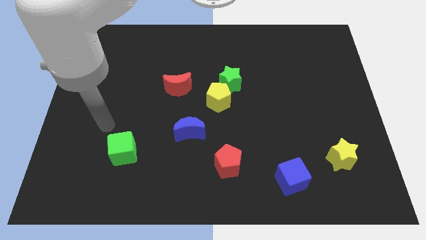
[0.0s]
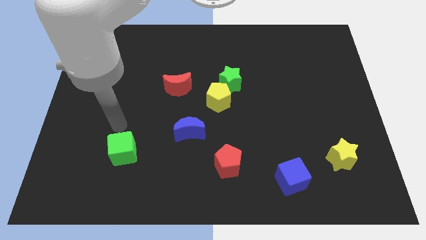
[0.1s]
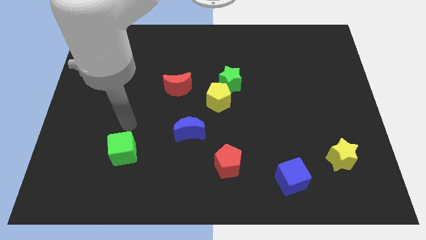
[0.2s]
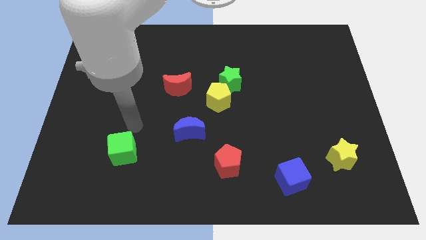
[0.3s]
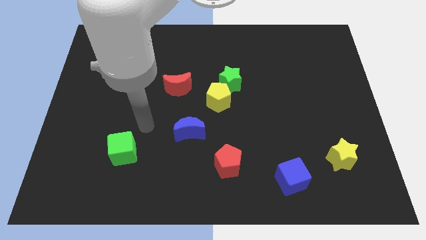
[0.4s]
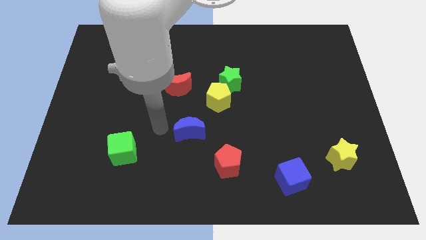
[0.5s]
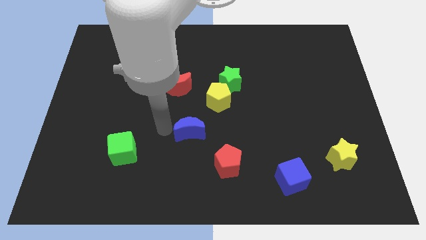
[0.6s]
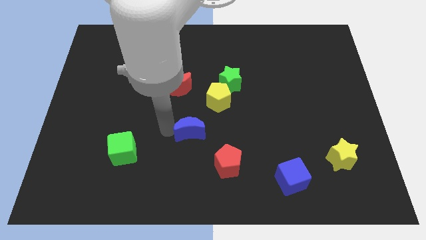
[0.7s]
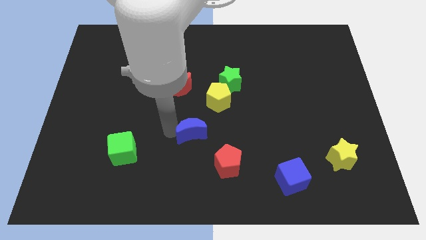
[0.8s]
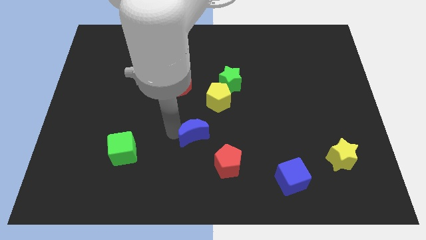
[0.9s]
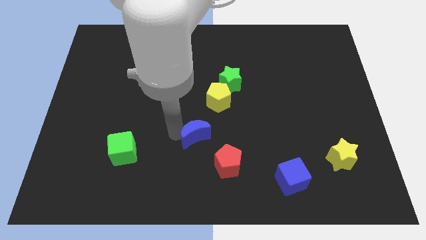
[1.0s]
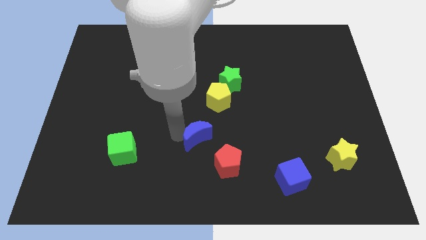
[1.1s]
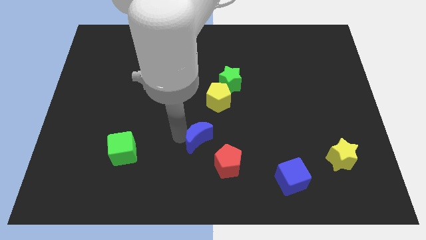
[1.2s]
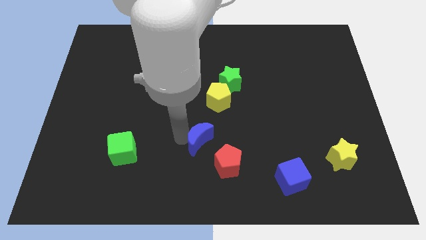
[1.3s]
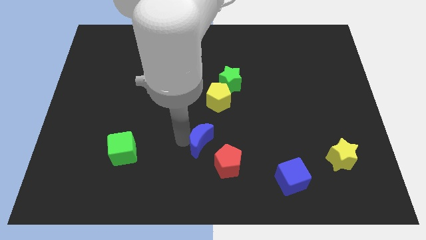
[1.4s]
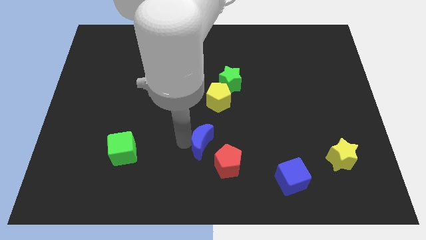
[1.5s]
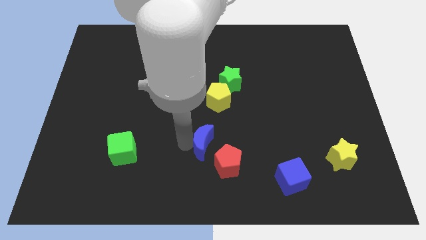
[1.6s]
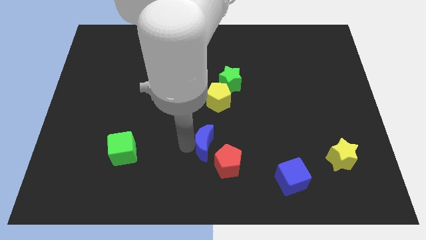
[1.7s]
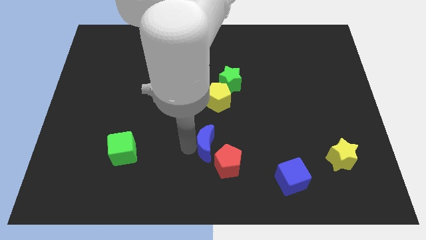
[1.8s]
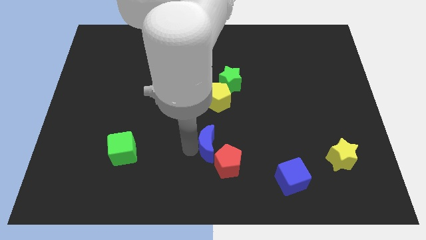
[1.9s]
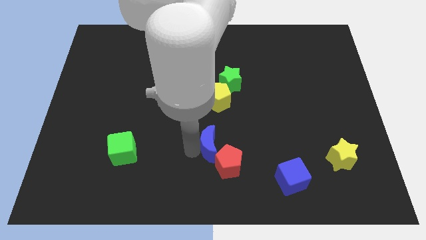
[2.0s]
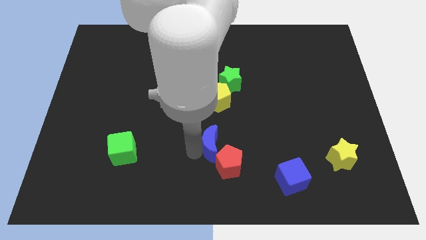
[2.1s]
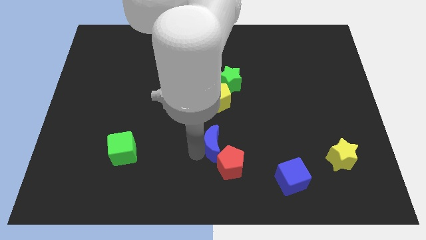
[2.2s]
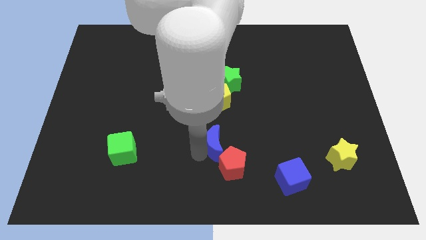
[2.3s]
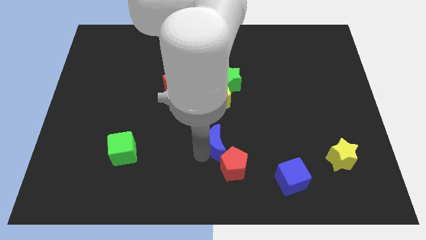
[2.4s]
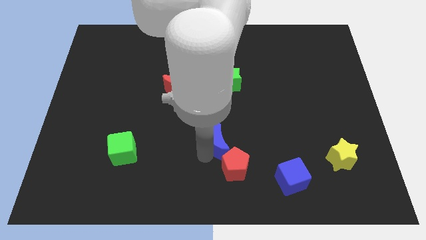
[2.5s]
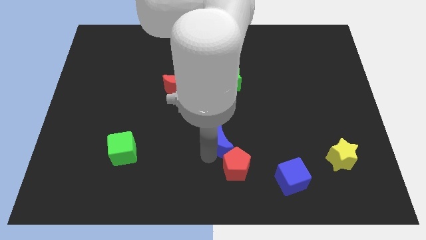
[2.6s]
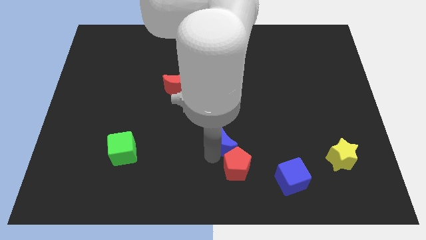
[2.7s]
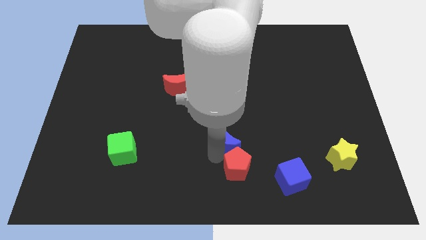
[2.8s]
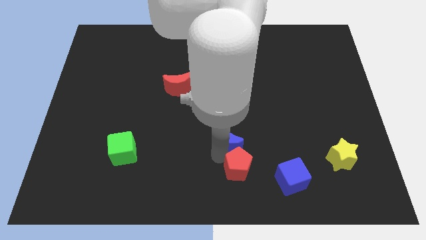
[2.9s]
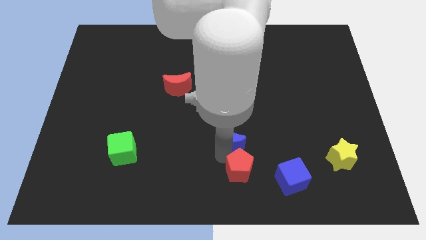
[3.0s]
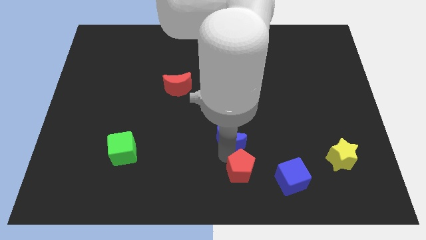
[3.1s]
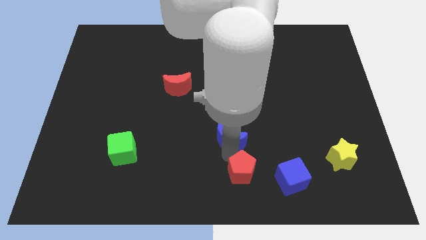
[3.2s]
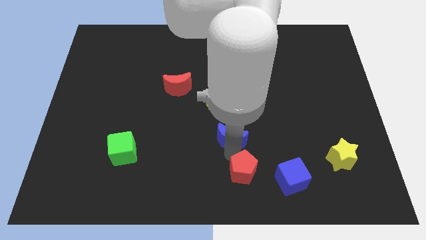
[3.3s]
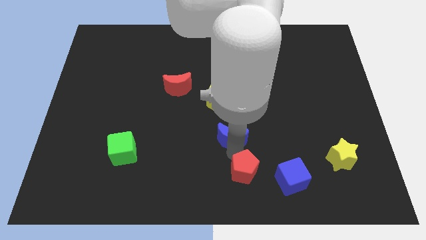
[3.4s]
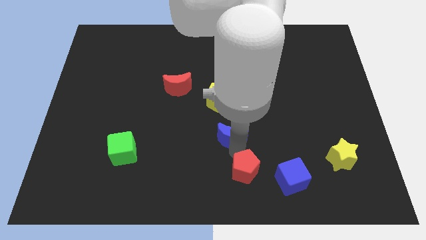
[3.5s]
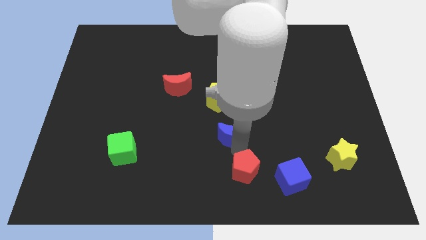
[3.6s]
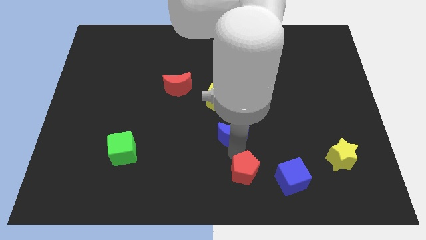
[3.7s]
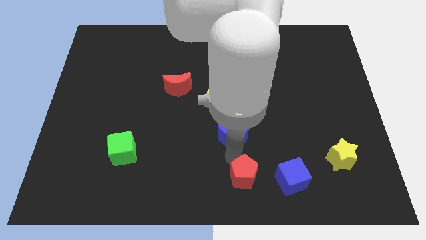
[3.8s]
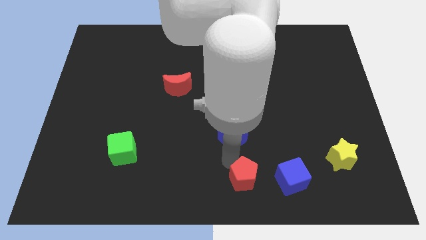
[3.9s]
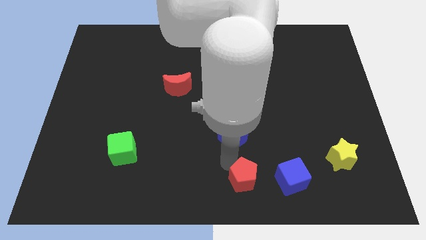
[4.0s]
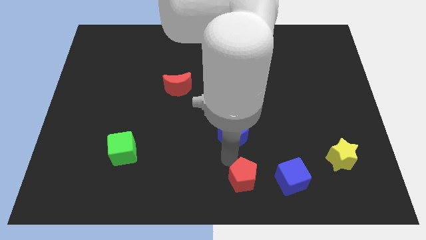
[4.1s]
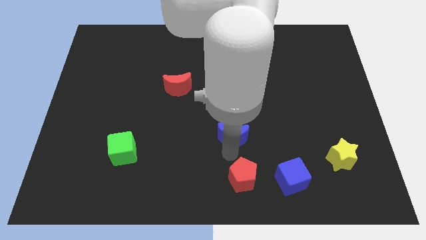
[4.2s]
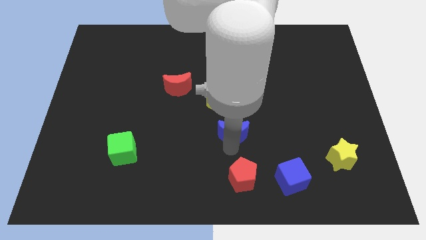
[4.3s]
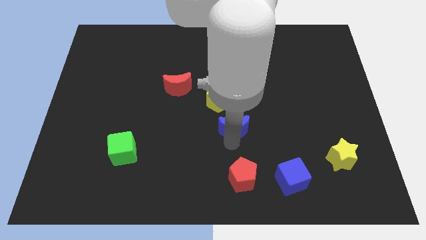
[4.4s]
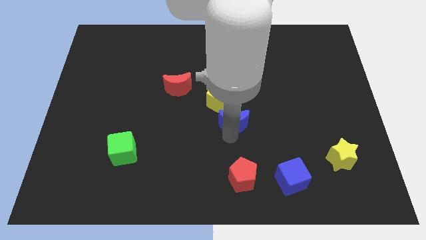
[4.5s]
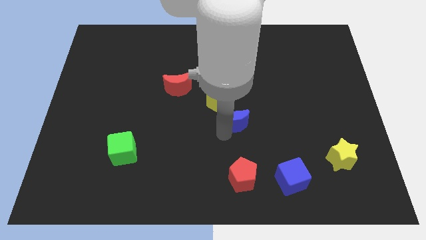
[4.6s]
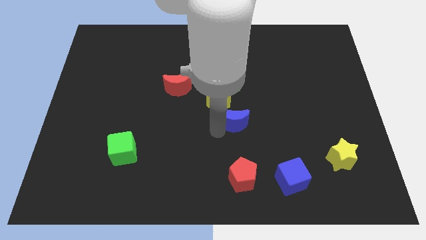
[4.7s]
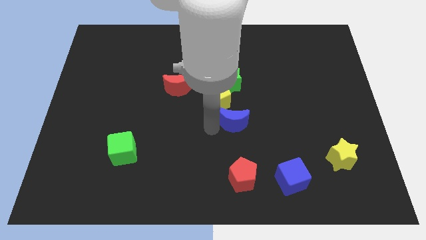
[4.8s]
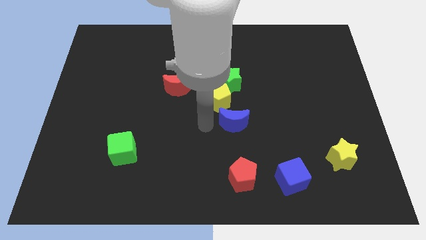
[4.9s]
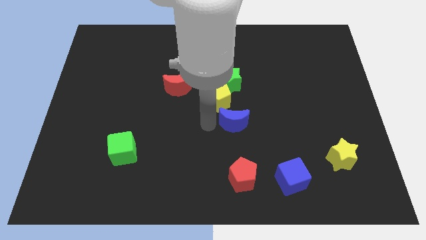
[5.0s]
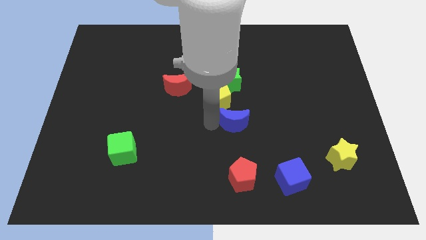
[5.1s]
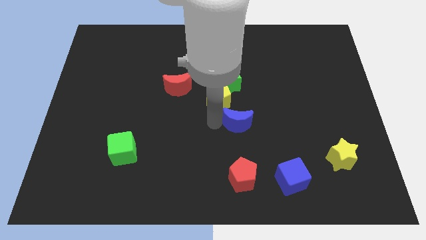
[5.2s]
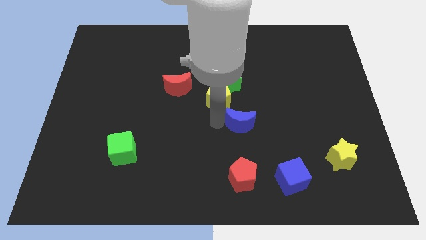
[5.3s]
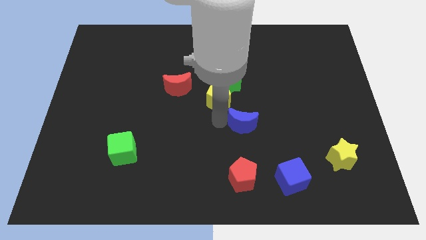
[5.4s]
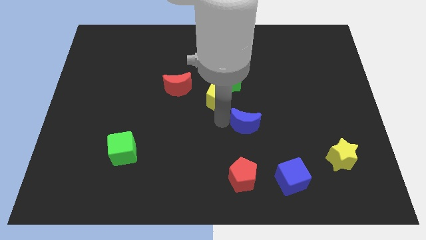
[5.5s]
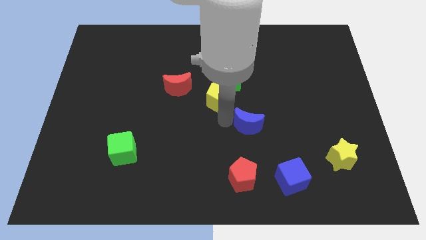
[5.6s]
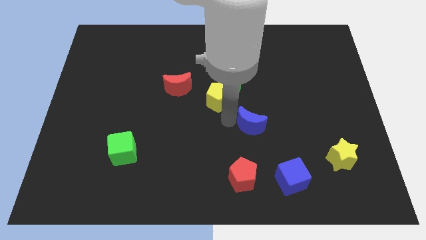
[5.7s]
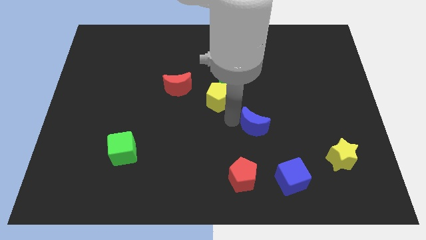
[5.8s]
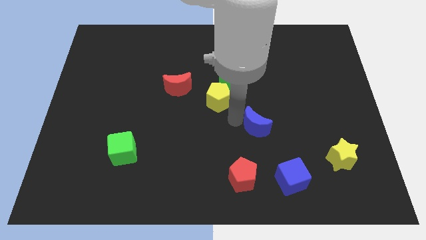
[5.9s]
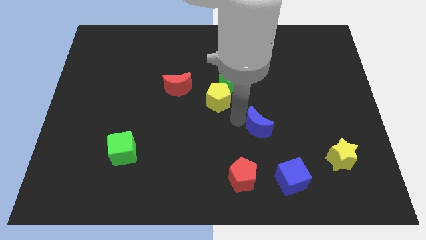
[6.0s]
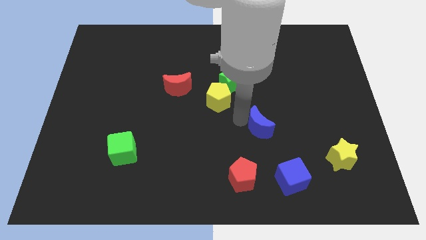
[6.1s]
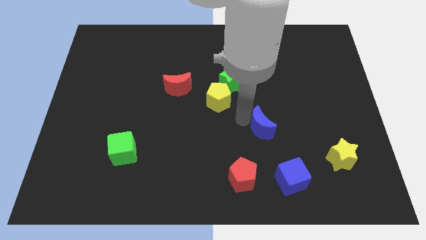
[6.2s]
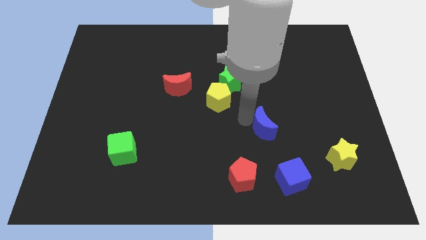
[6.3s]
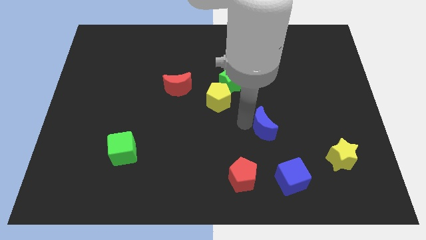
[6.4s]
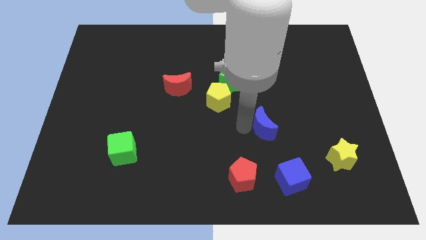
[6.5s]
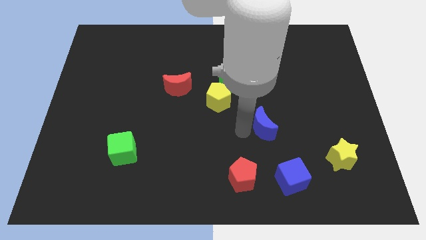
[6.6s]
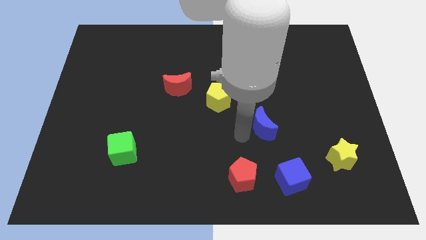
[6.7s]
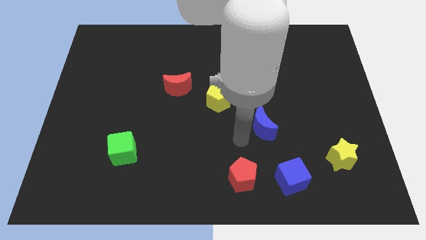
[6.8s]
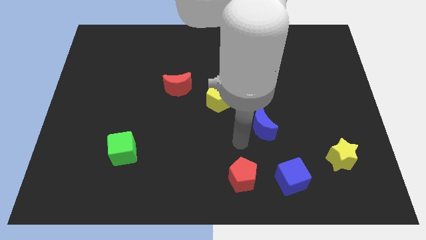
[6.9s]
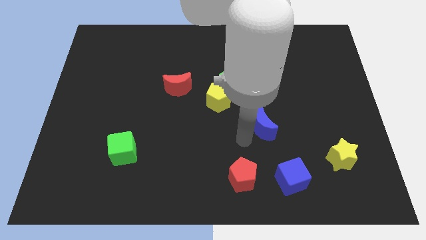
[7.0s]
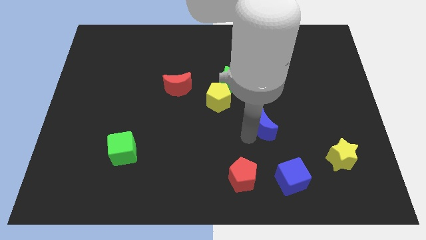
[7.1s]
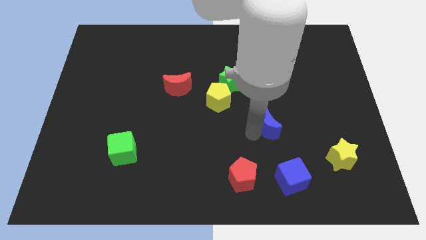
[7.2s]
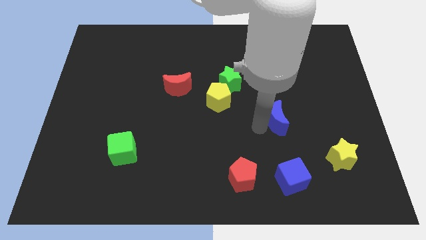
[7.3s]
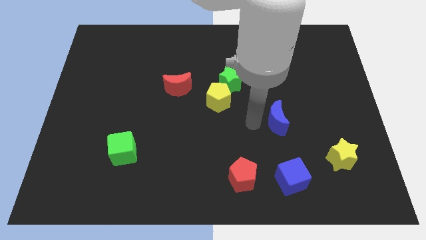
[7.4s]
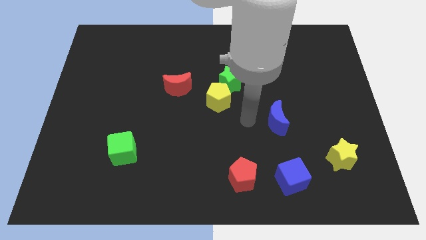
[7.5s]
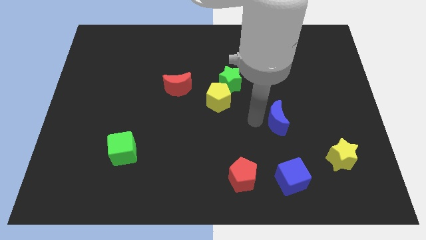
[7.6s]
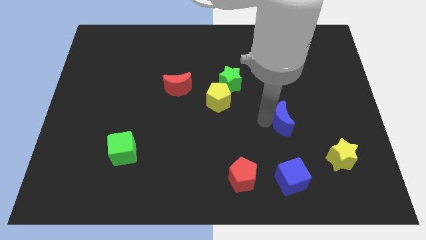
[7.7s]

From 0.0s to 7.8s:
push the blue moon right

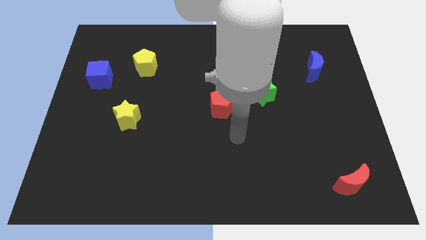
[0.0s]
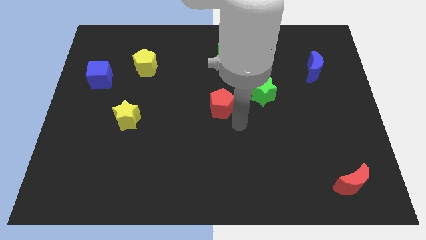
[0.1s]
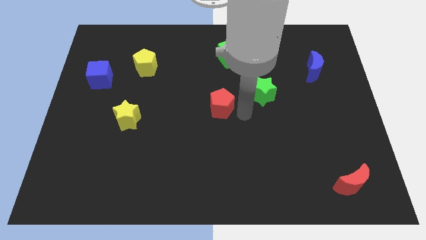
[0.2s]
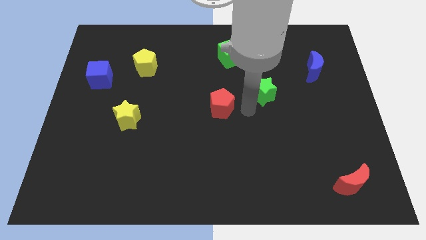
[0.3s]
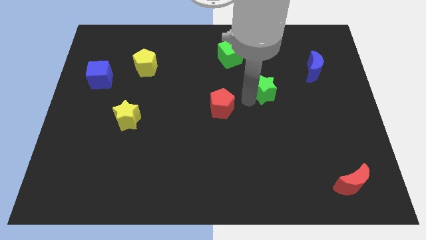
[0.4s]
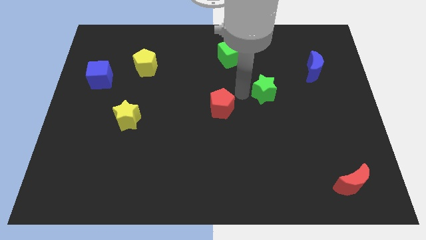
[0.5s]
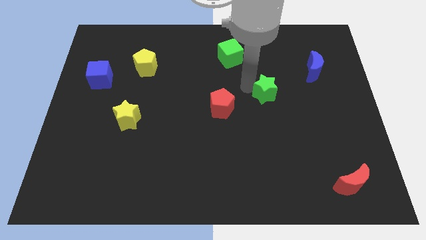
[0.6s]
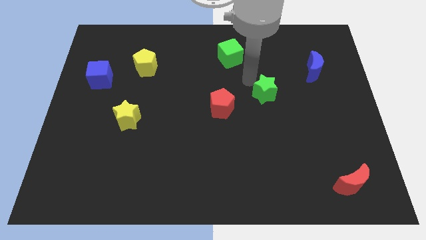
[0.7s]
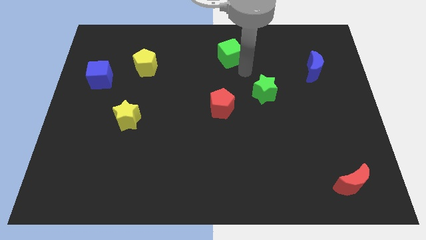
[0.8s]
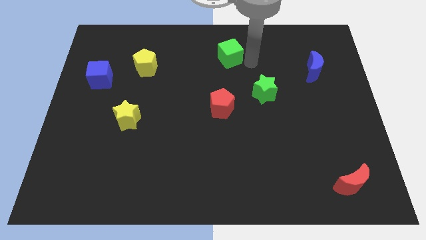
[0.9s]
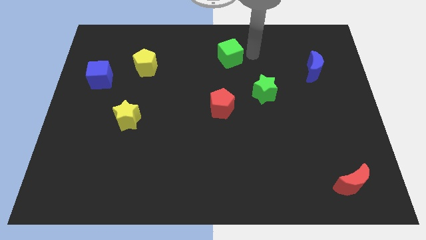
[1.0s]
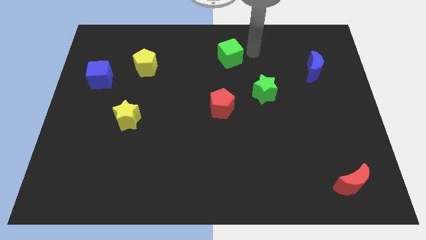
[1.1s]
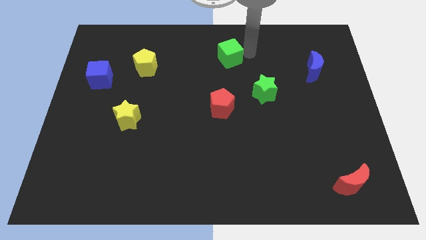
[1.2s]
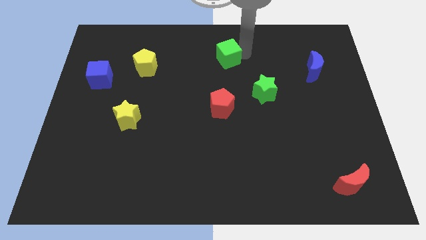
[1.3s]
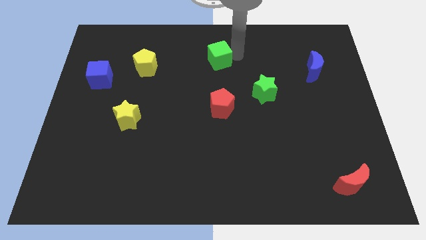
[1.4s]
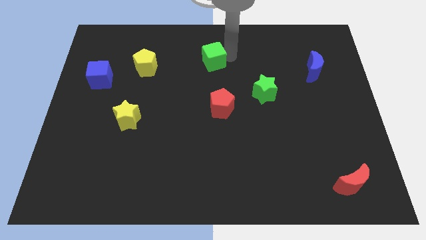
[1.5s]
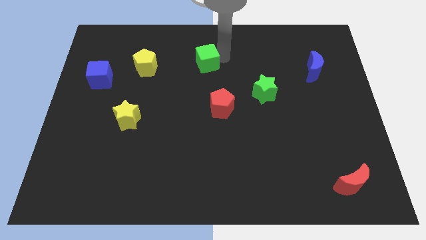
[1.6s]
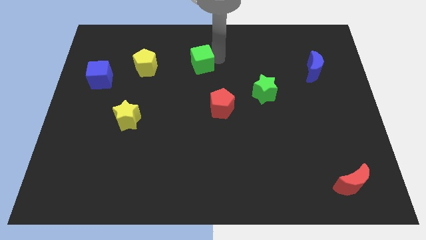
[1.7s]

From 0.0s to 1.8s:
move the green cube to the left a little
